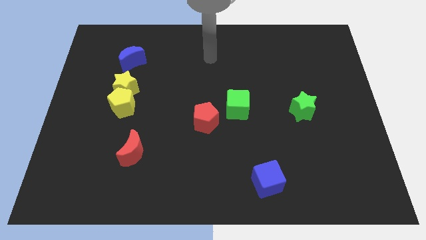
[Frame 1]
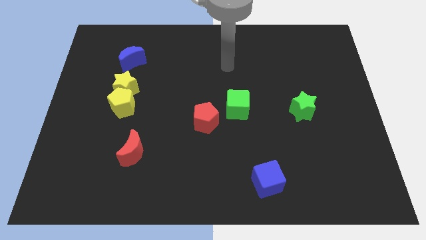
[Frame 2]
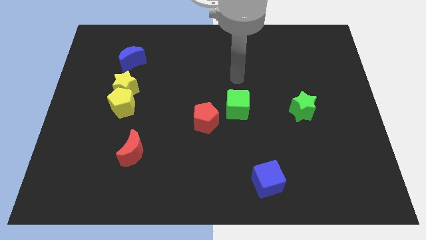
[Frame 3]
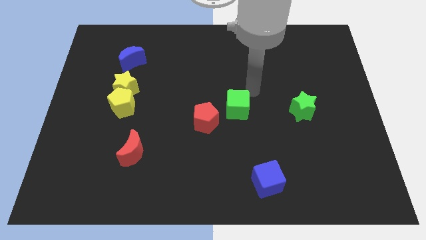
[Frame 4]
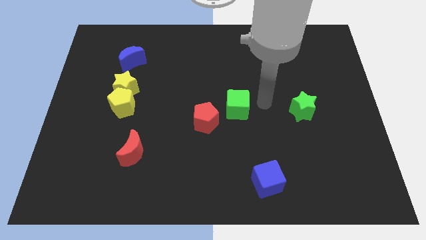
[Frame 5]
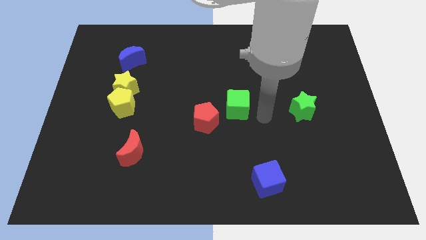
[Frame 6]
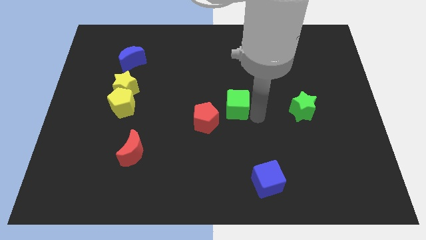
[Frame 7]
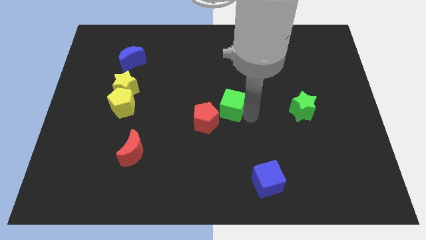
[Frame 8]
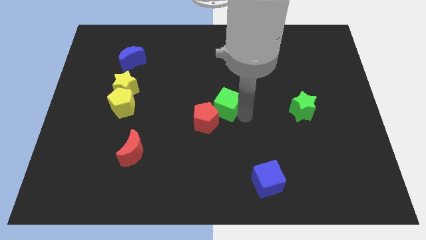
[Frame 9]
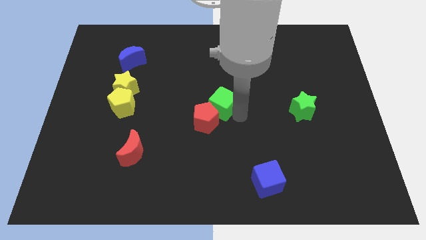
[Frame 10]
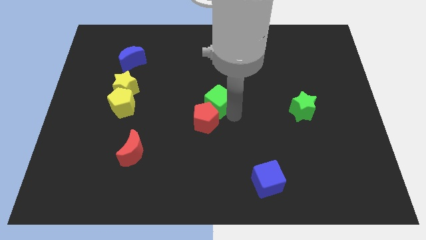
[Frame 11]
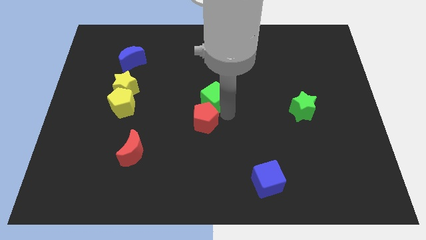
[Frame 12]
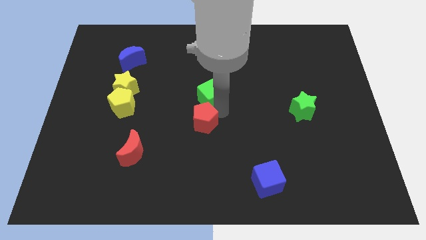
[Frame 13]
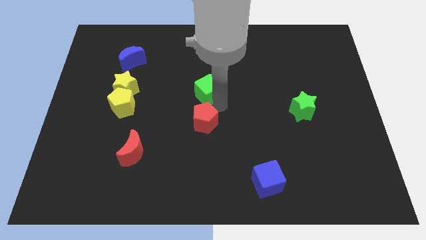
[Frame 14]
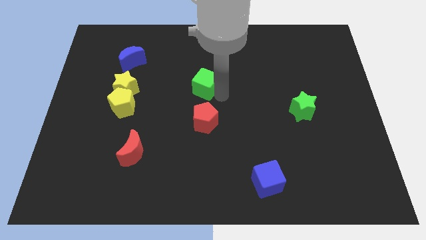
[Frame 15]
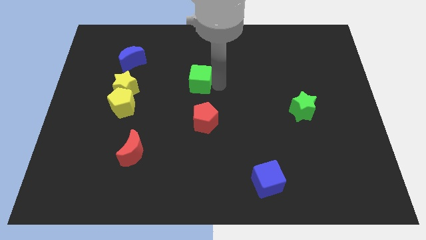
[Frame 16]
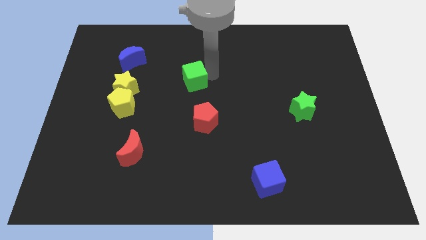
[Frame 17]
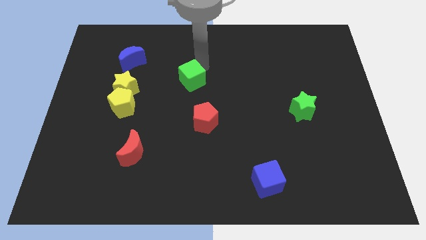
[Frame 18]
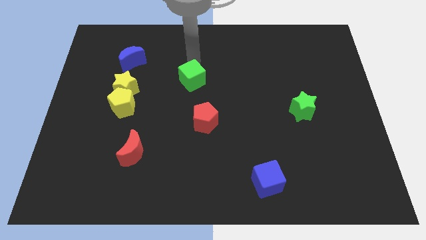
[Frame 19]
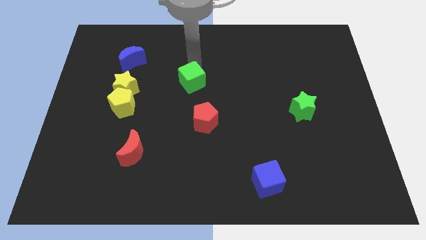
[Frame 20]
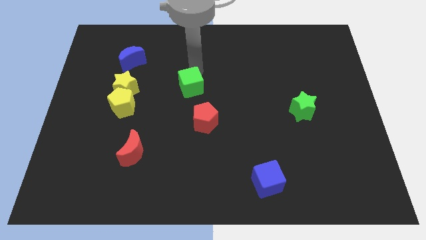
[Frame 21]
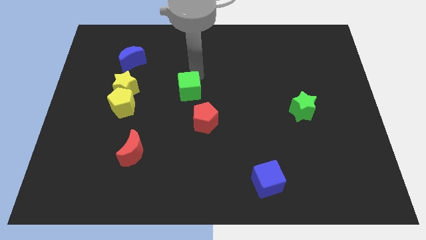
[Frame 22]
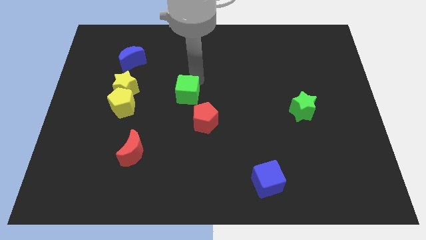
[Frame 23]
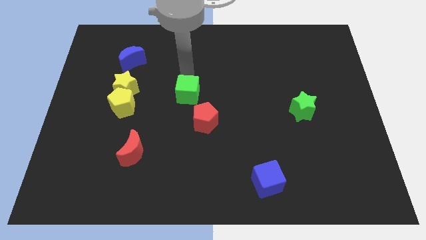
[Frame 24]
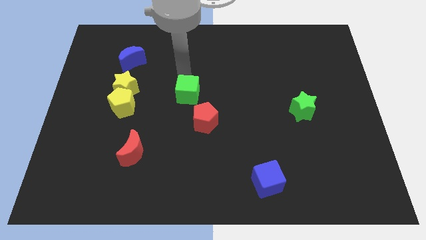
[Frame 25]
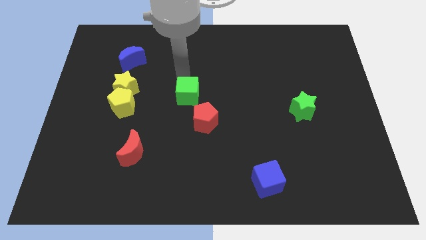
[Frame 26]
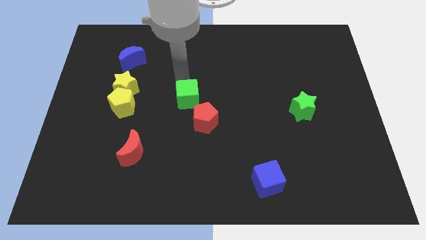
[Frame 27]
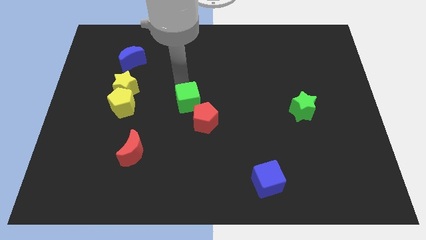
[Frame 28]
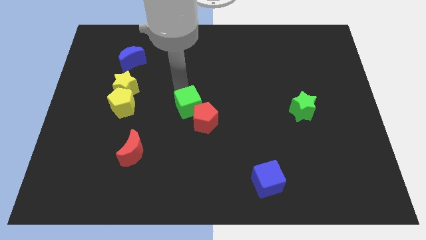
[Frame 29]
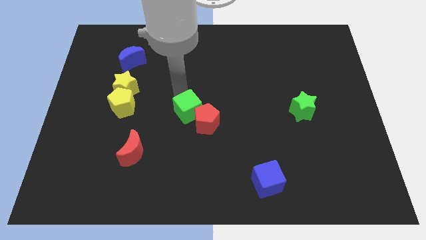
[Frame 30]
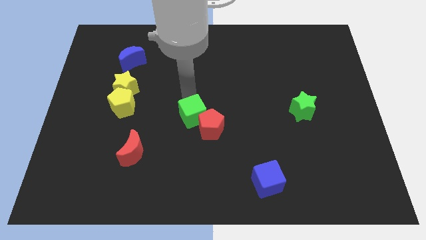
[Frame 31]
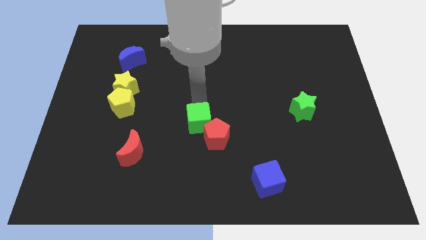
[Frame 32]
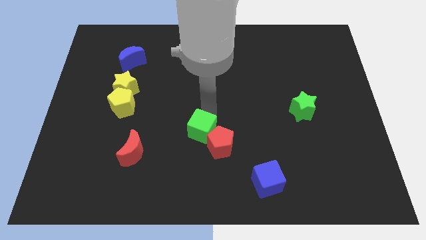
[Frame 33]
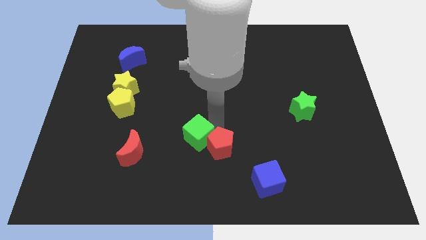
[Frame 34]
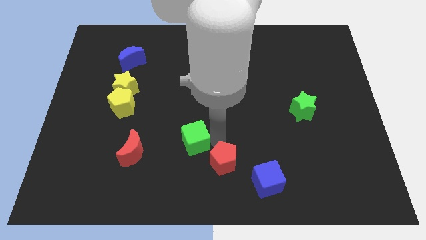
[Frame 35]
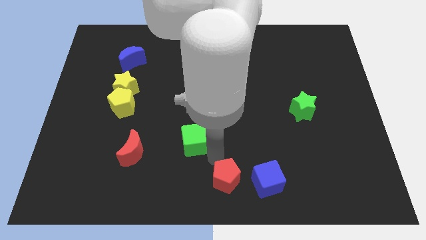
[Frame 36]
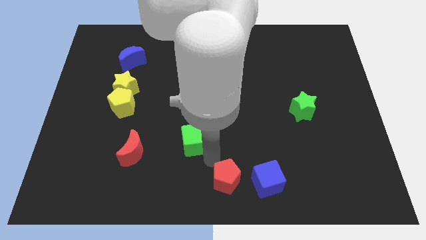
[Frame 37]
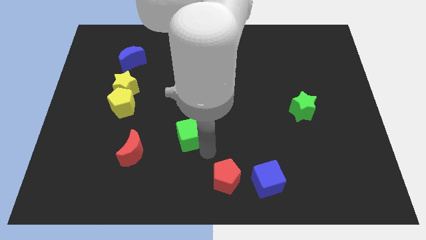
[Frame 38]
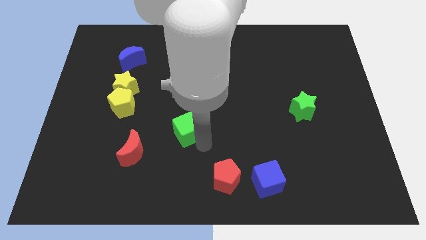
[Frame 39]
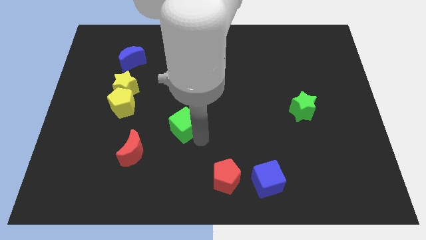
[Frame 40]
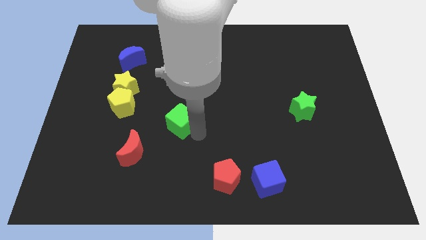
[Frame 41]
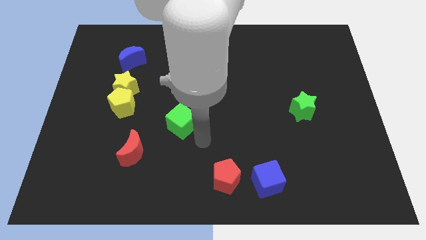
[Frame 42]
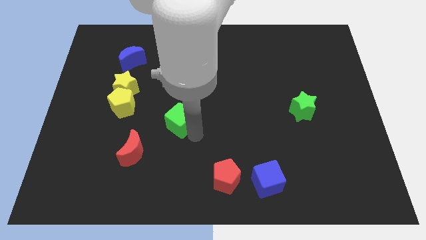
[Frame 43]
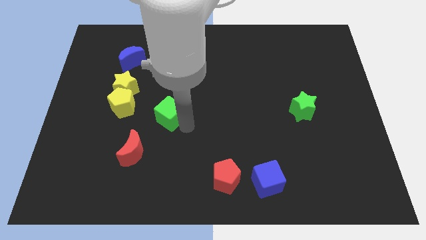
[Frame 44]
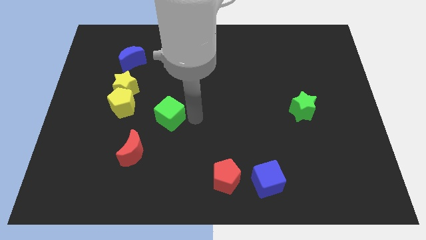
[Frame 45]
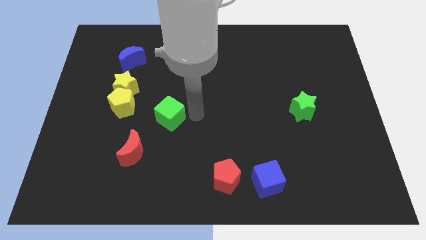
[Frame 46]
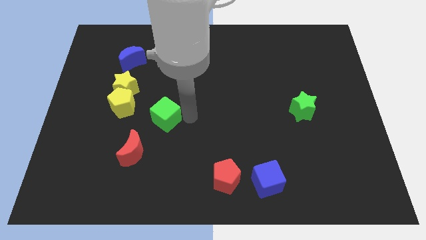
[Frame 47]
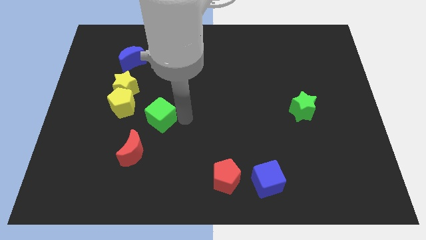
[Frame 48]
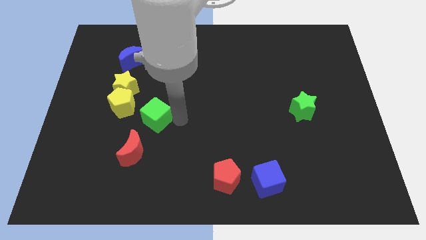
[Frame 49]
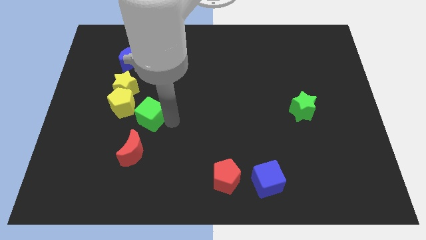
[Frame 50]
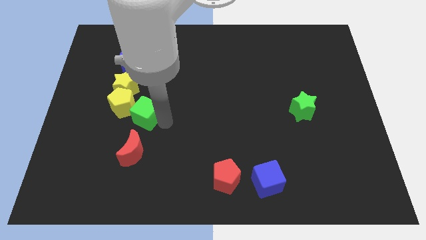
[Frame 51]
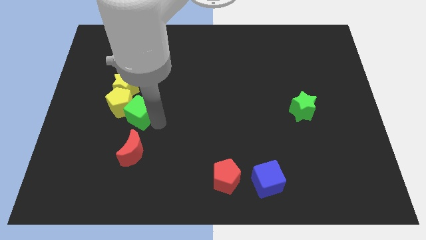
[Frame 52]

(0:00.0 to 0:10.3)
push the green cube to the bottom side of the yellow star

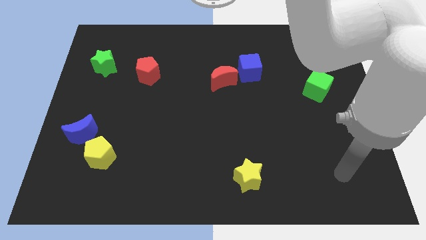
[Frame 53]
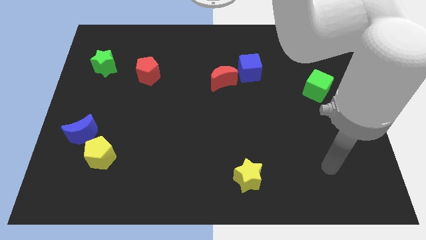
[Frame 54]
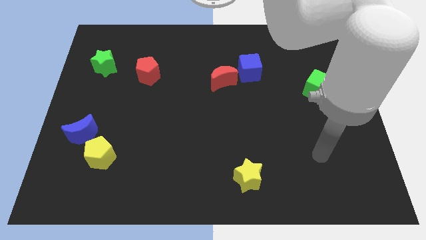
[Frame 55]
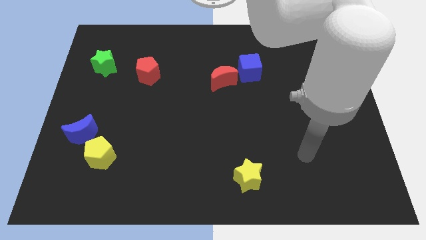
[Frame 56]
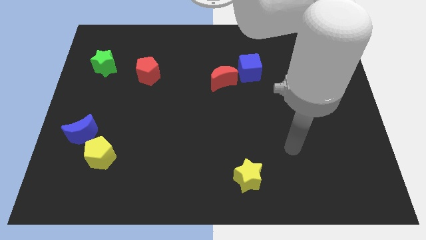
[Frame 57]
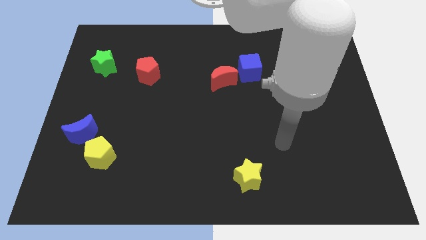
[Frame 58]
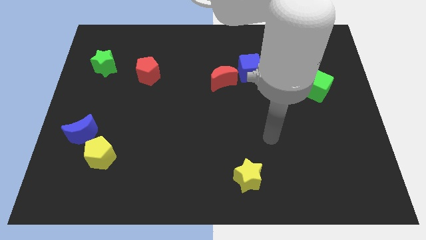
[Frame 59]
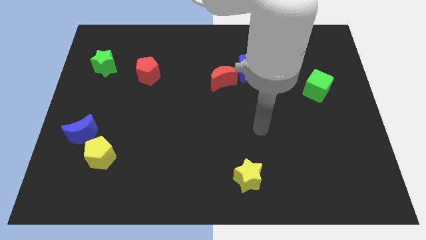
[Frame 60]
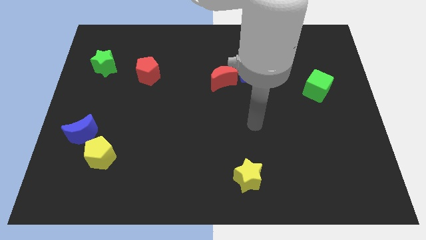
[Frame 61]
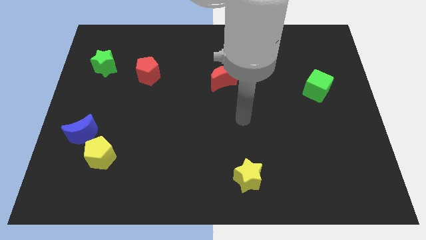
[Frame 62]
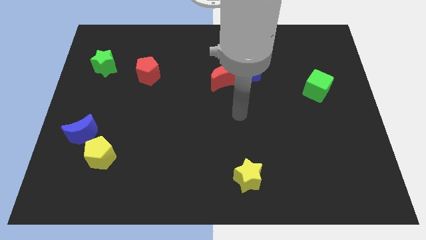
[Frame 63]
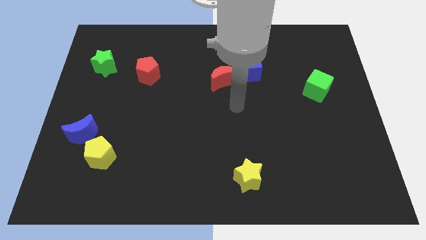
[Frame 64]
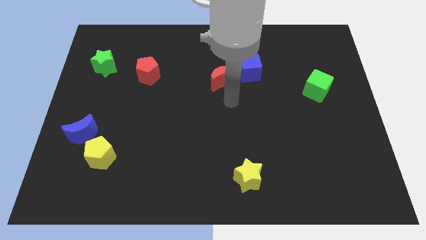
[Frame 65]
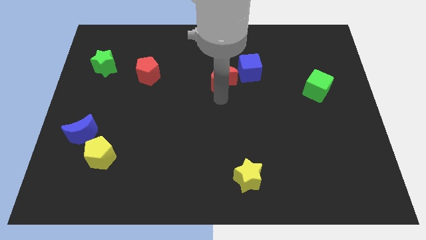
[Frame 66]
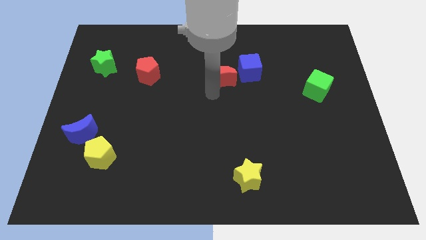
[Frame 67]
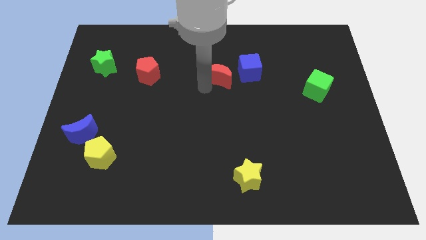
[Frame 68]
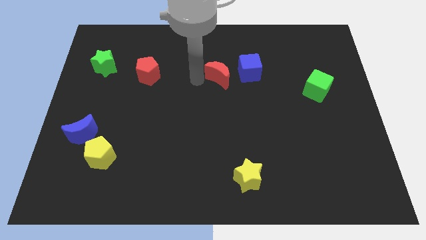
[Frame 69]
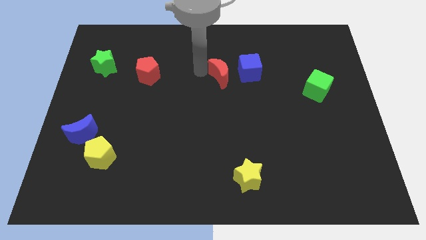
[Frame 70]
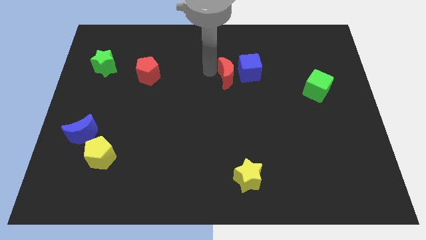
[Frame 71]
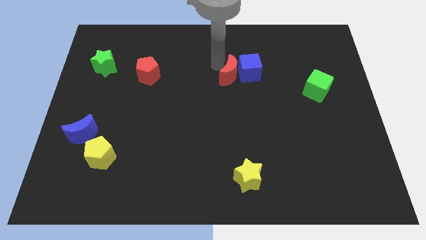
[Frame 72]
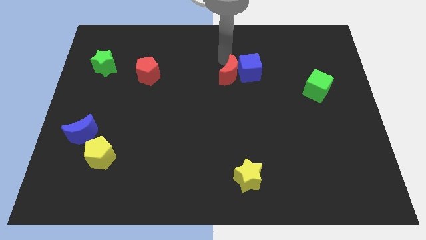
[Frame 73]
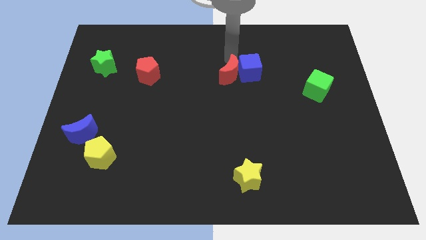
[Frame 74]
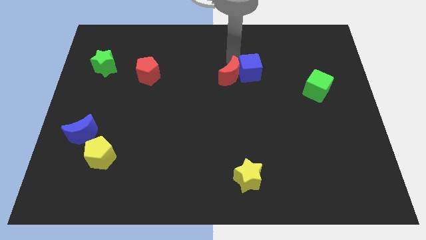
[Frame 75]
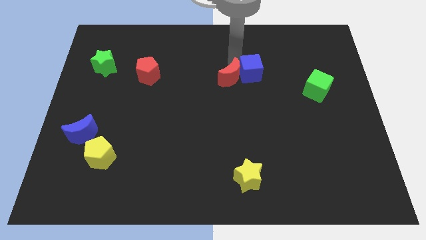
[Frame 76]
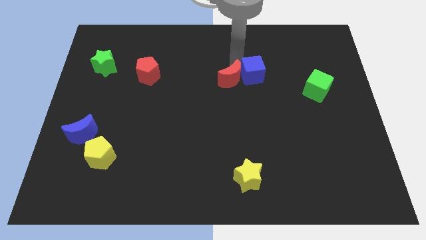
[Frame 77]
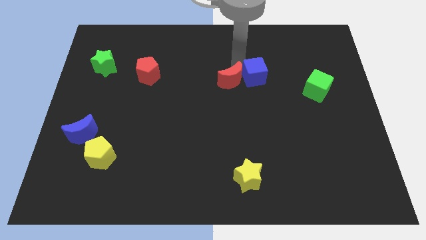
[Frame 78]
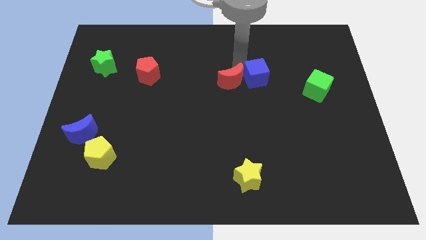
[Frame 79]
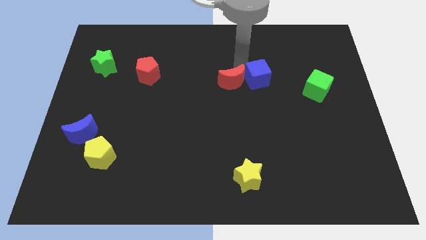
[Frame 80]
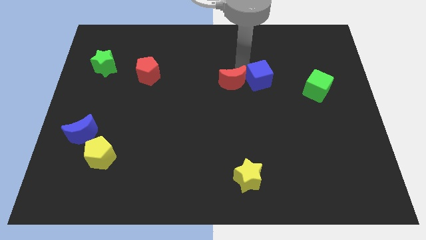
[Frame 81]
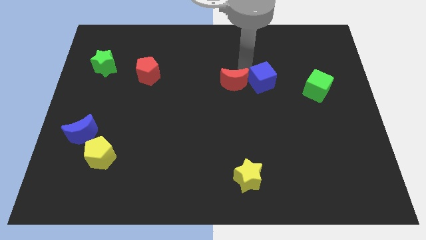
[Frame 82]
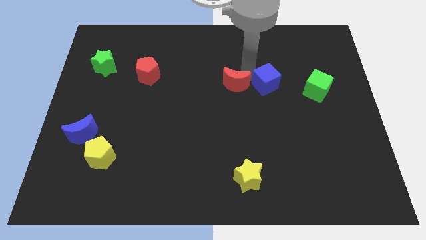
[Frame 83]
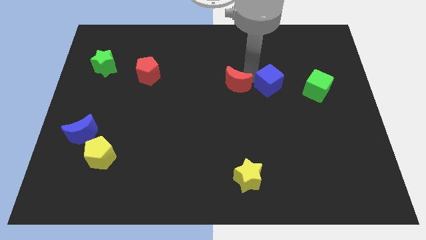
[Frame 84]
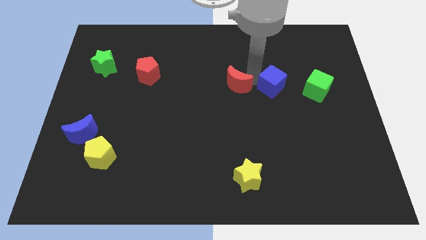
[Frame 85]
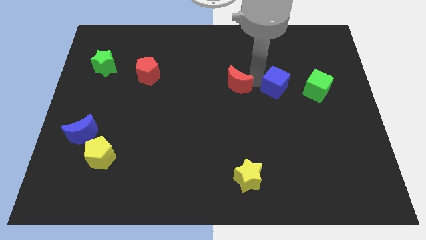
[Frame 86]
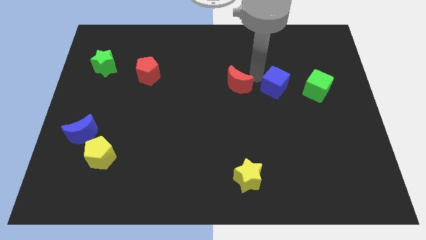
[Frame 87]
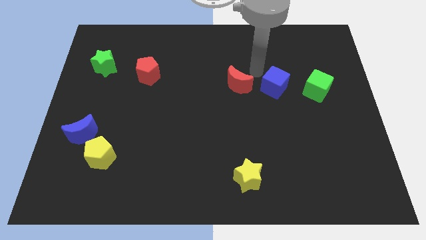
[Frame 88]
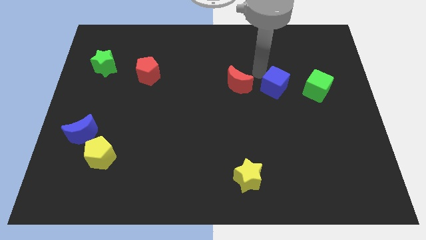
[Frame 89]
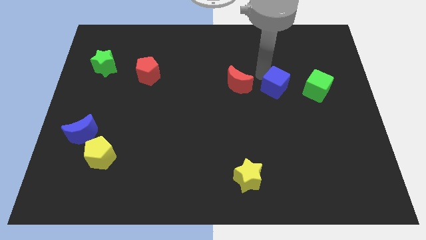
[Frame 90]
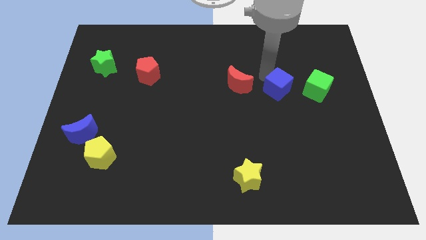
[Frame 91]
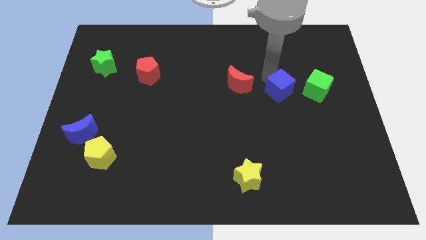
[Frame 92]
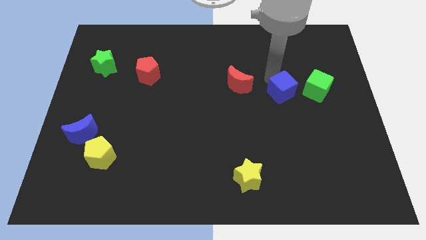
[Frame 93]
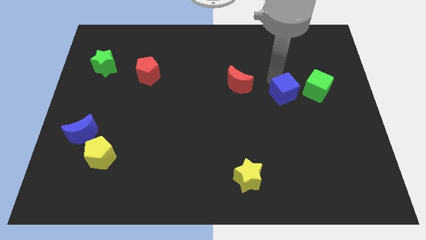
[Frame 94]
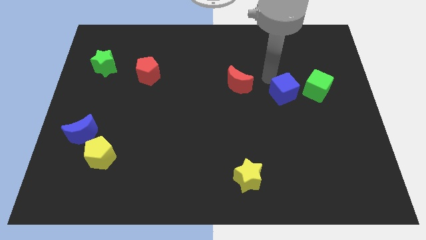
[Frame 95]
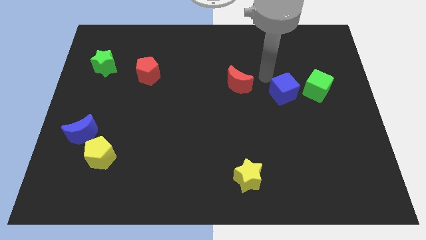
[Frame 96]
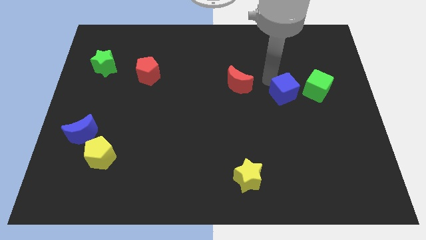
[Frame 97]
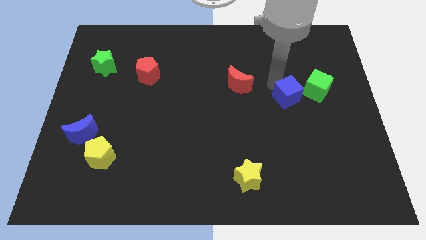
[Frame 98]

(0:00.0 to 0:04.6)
slide the blue cube to the bottom left of the green cube
